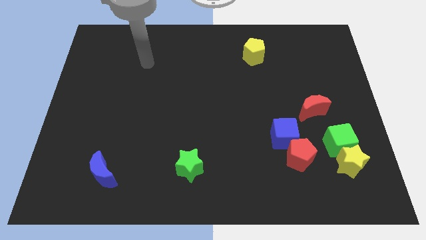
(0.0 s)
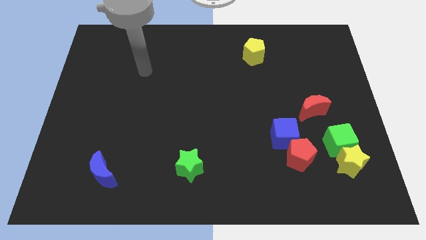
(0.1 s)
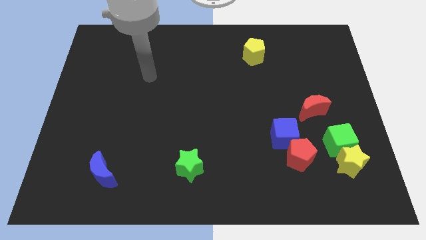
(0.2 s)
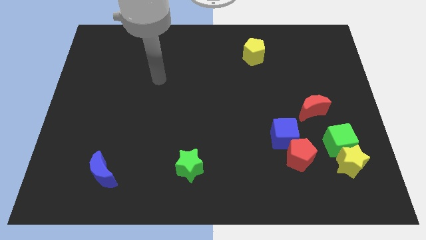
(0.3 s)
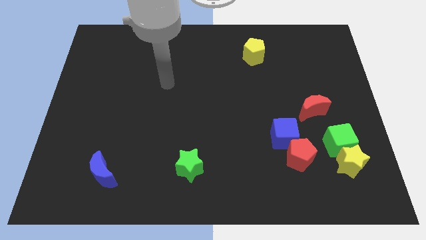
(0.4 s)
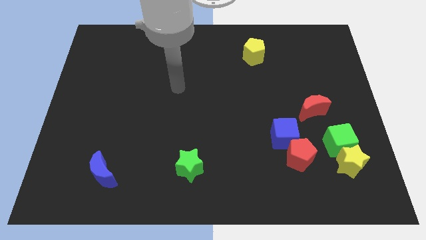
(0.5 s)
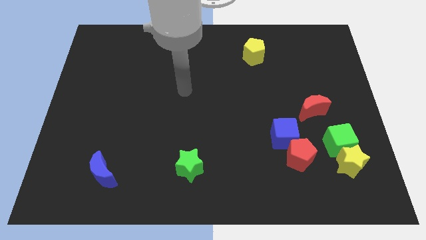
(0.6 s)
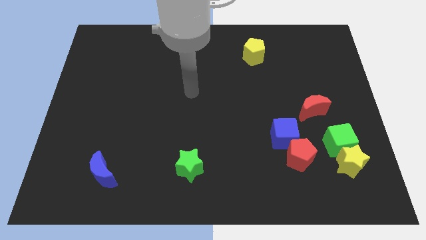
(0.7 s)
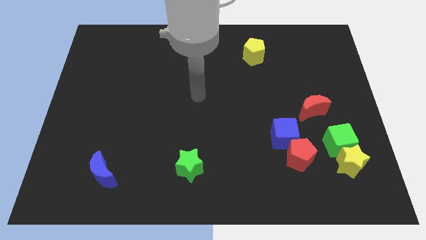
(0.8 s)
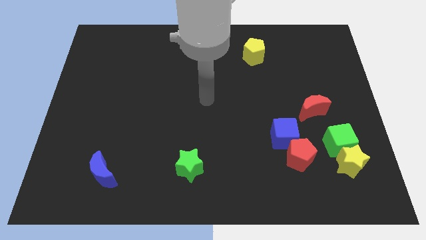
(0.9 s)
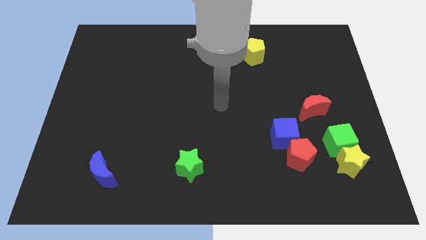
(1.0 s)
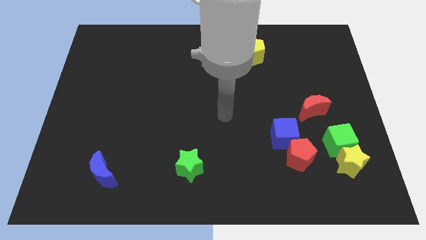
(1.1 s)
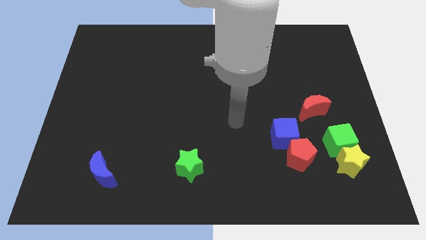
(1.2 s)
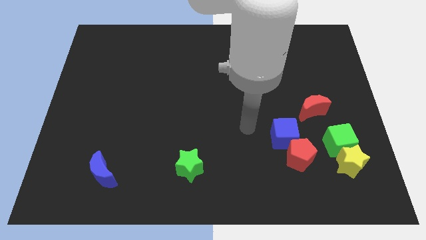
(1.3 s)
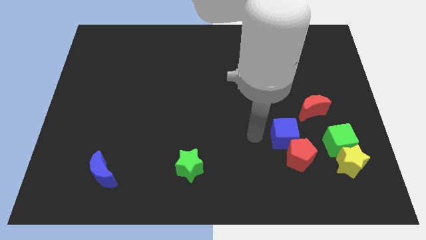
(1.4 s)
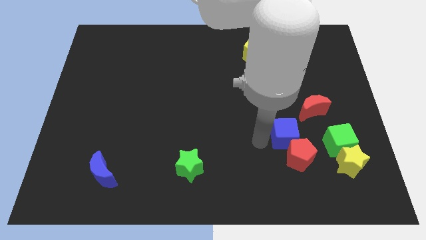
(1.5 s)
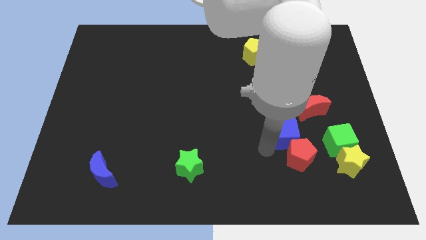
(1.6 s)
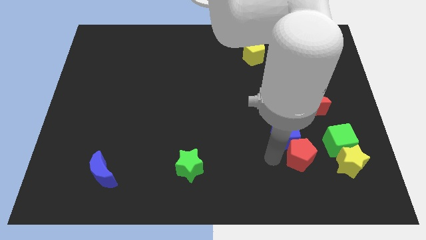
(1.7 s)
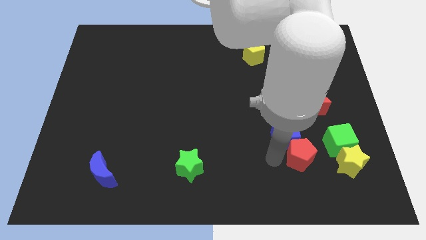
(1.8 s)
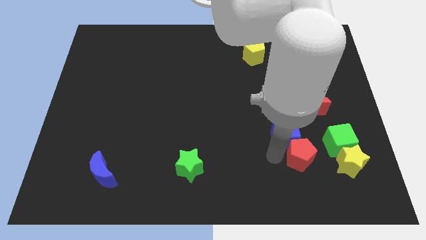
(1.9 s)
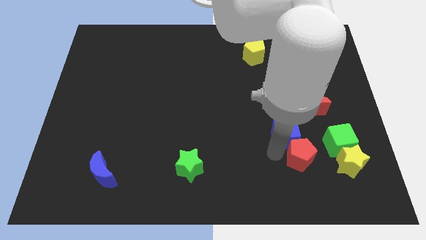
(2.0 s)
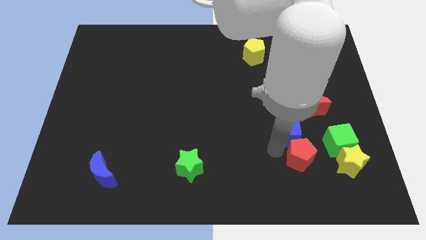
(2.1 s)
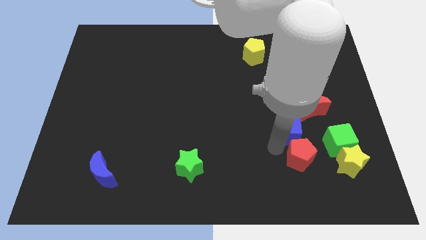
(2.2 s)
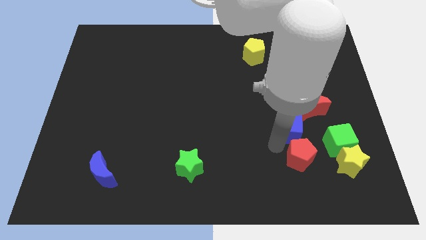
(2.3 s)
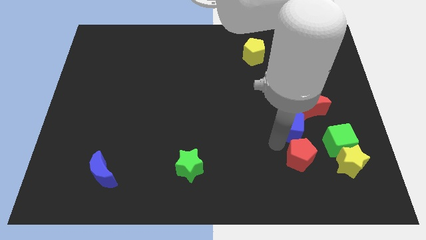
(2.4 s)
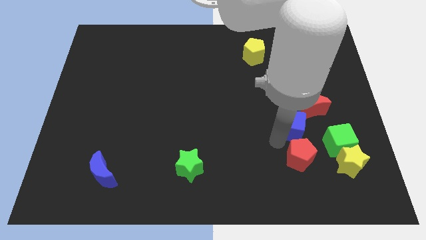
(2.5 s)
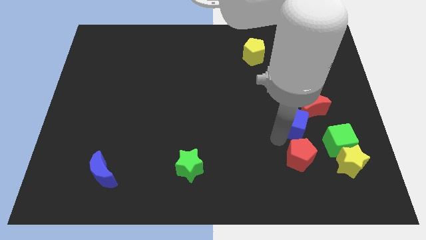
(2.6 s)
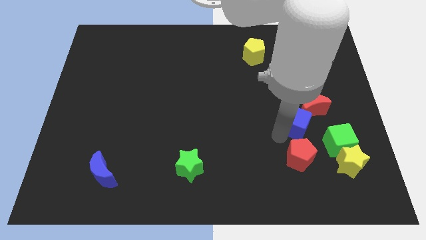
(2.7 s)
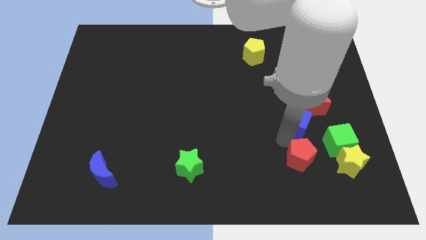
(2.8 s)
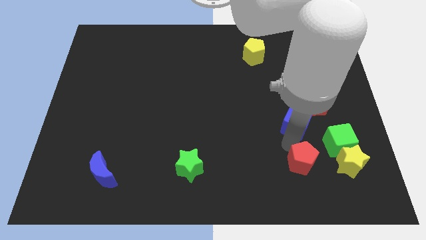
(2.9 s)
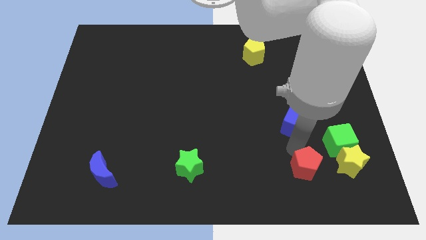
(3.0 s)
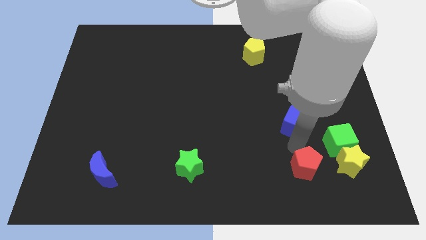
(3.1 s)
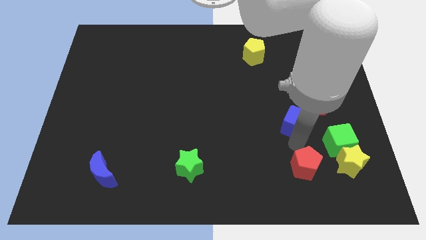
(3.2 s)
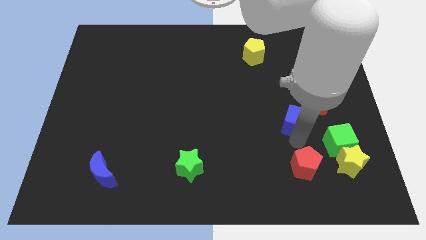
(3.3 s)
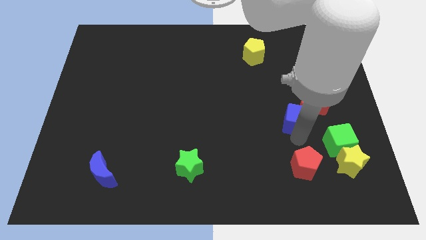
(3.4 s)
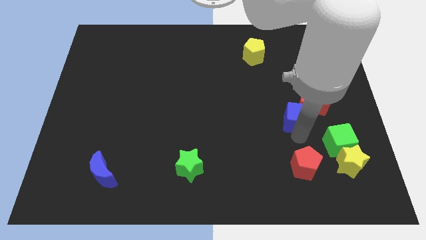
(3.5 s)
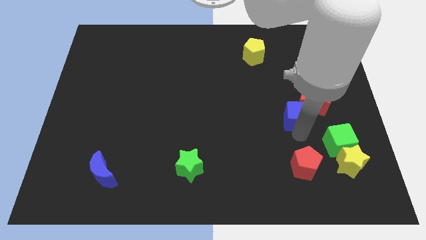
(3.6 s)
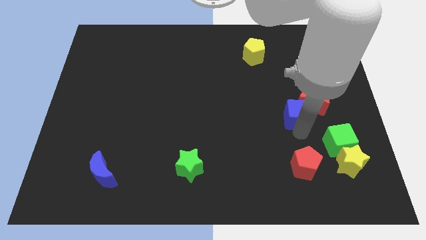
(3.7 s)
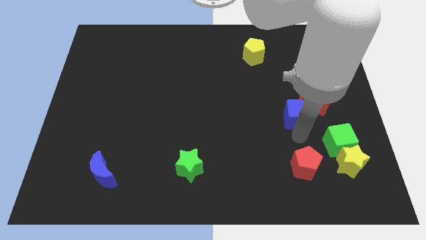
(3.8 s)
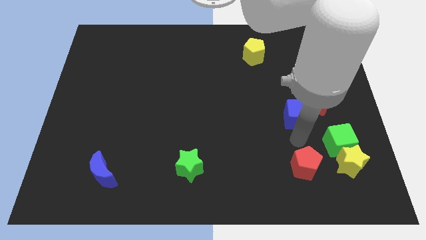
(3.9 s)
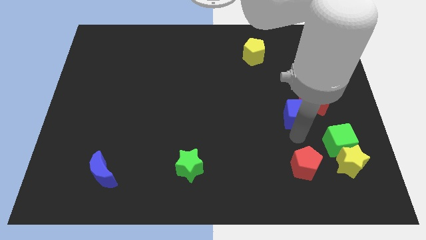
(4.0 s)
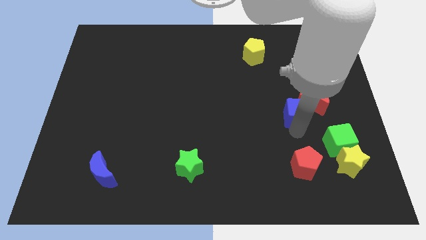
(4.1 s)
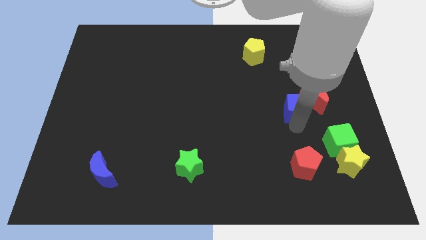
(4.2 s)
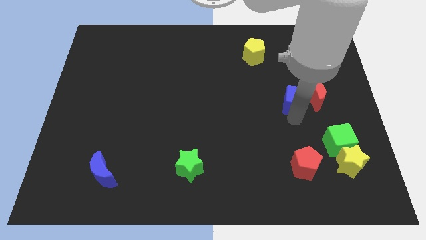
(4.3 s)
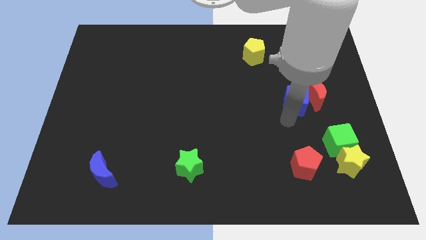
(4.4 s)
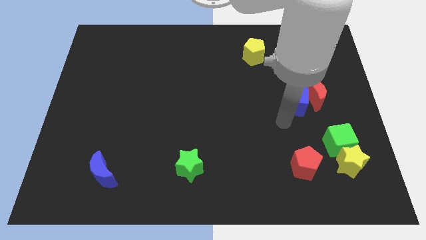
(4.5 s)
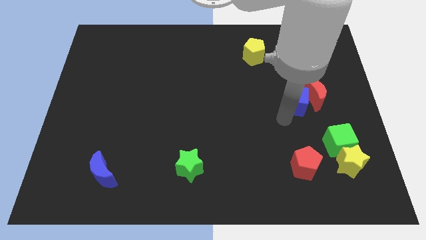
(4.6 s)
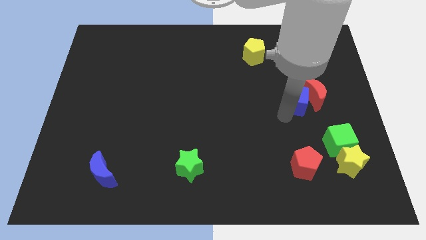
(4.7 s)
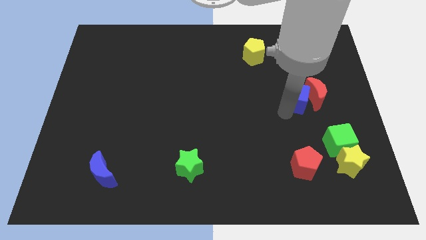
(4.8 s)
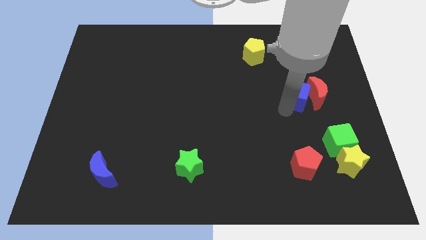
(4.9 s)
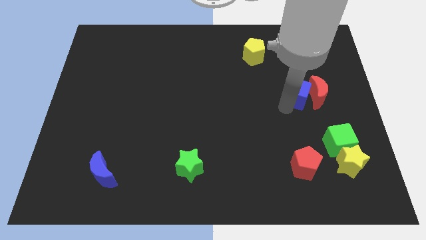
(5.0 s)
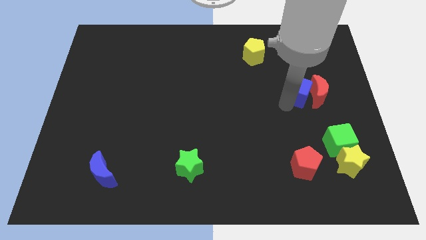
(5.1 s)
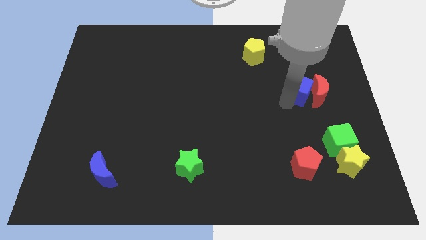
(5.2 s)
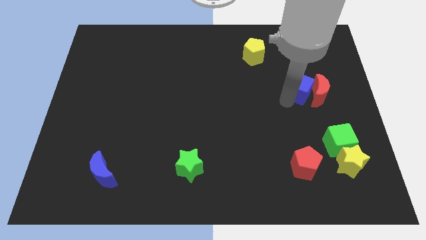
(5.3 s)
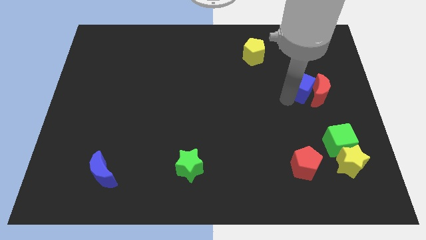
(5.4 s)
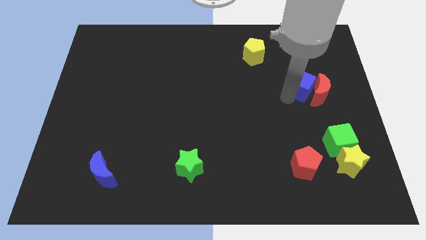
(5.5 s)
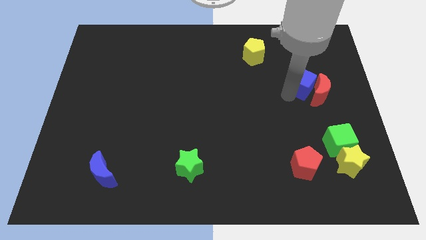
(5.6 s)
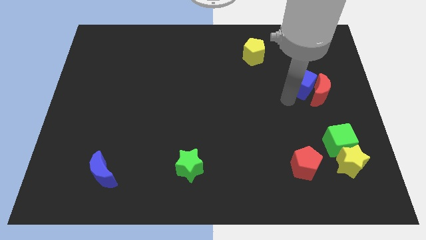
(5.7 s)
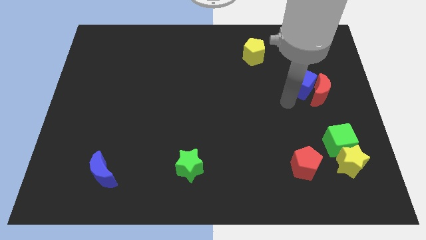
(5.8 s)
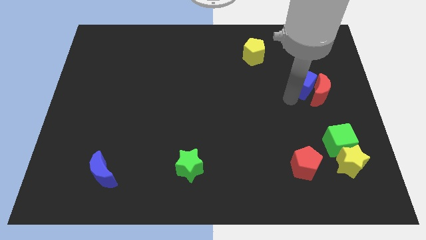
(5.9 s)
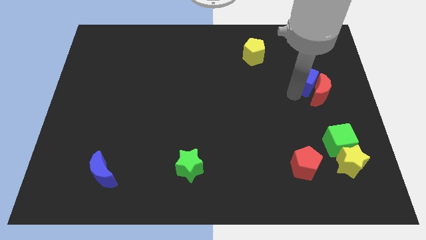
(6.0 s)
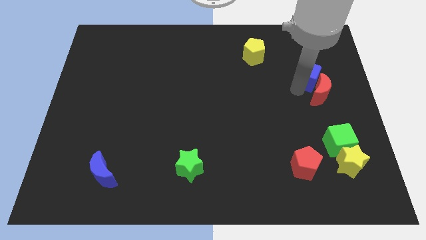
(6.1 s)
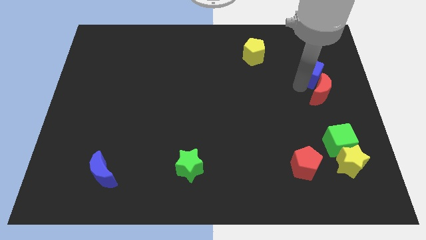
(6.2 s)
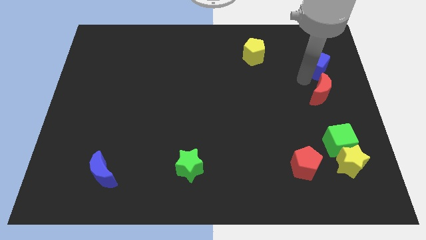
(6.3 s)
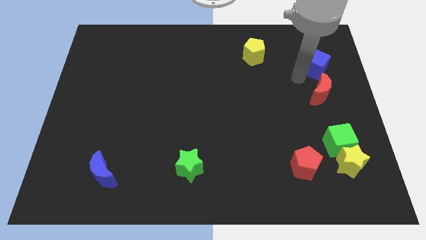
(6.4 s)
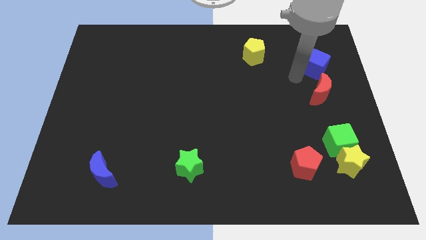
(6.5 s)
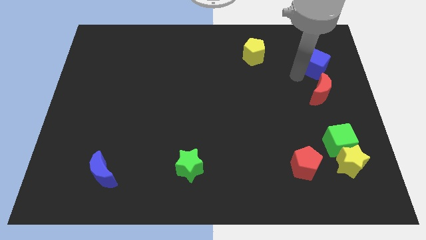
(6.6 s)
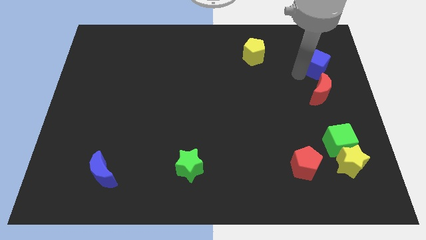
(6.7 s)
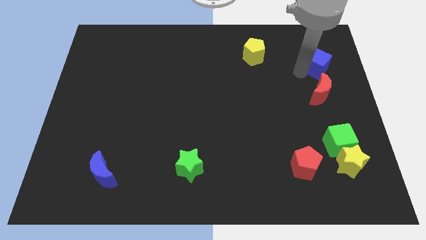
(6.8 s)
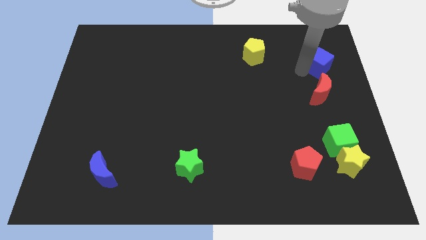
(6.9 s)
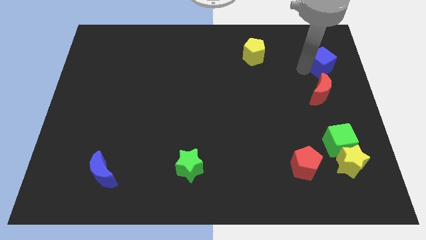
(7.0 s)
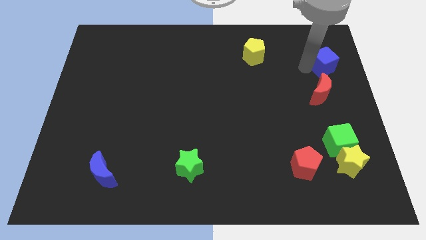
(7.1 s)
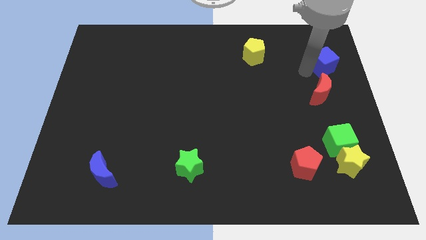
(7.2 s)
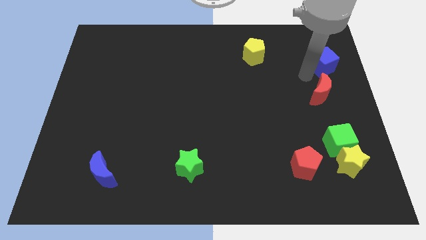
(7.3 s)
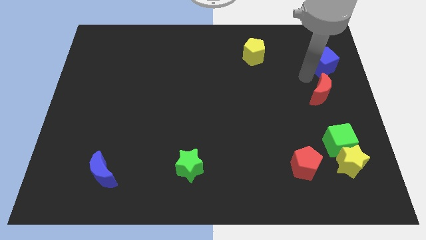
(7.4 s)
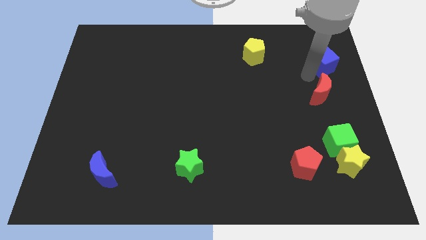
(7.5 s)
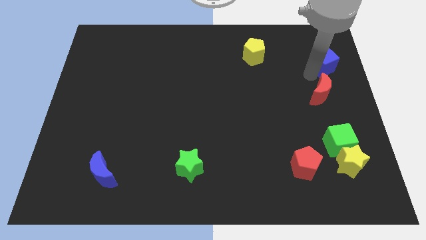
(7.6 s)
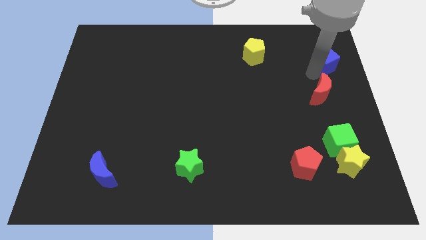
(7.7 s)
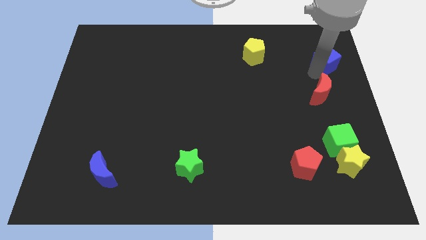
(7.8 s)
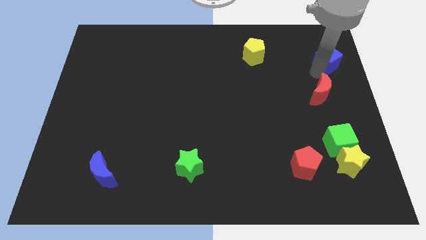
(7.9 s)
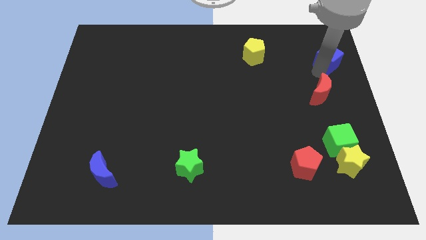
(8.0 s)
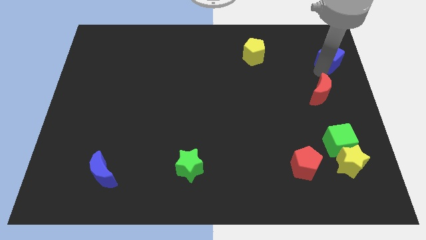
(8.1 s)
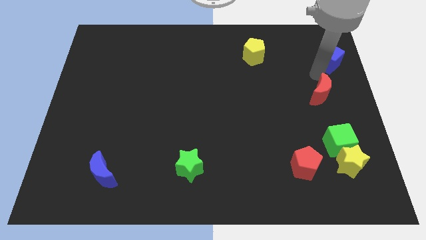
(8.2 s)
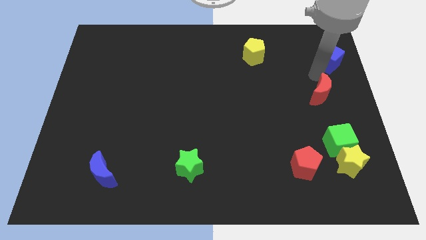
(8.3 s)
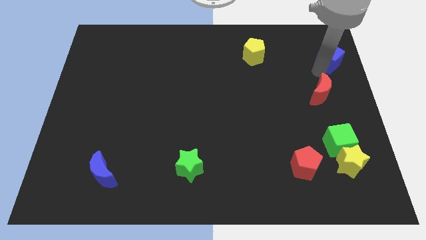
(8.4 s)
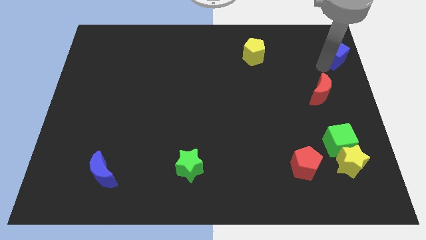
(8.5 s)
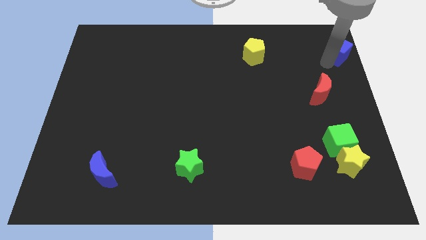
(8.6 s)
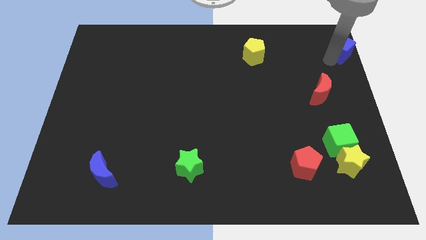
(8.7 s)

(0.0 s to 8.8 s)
push the blue cube to the upper right corner
